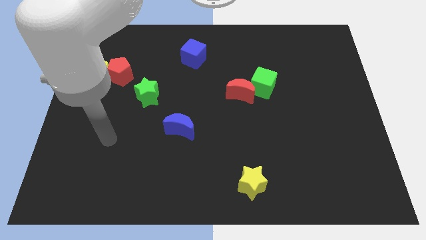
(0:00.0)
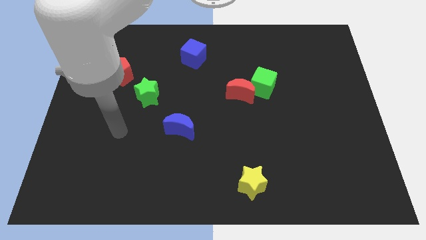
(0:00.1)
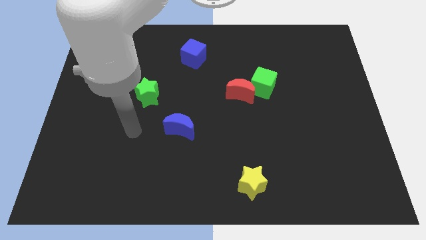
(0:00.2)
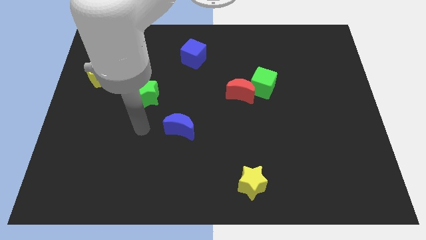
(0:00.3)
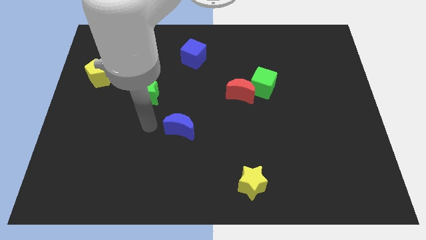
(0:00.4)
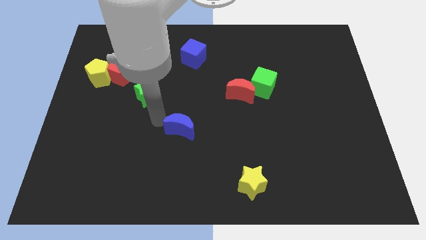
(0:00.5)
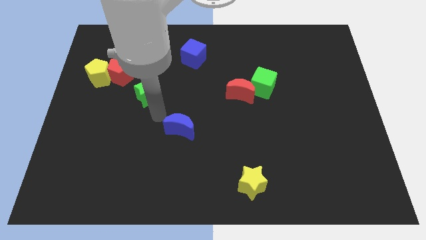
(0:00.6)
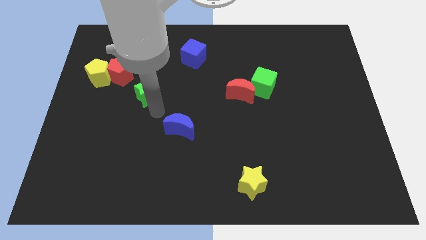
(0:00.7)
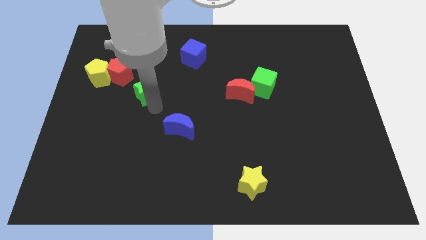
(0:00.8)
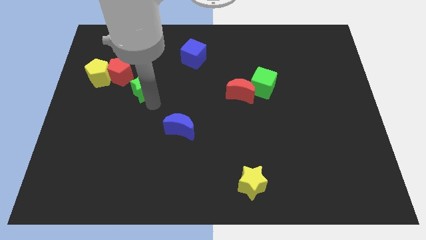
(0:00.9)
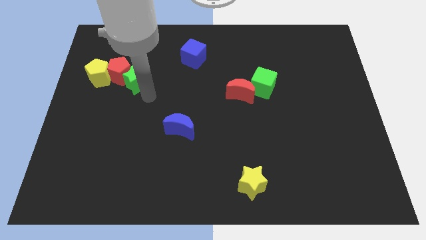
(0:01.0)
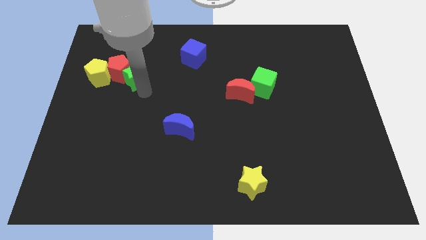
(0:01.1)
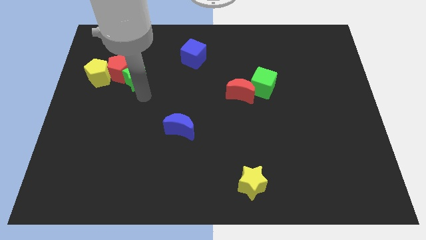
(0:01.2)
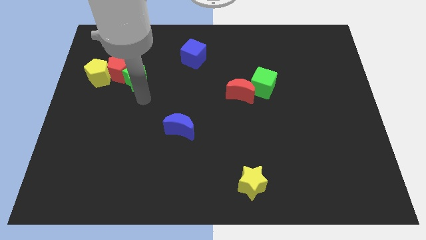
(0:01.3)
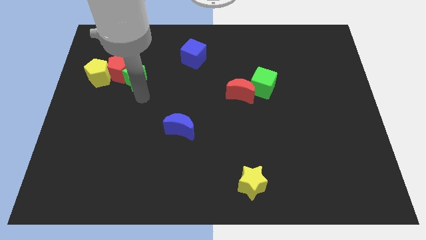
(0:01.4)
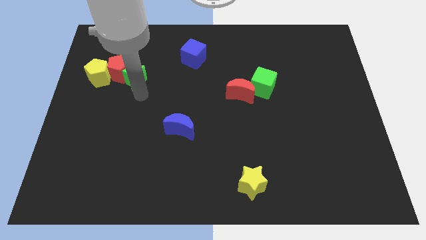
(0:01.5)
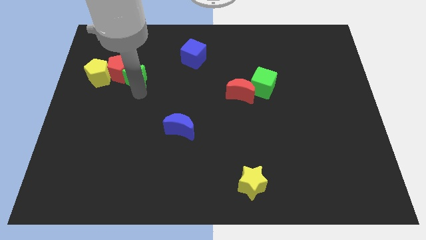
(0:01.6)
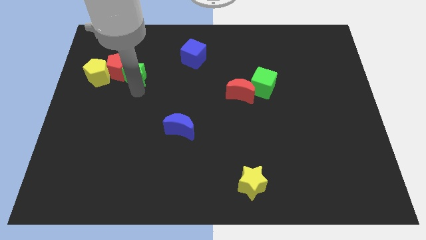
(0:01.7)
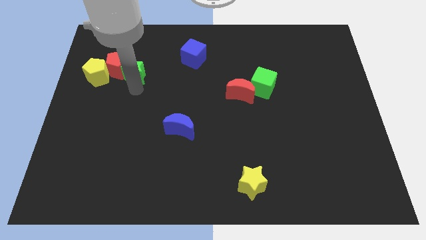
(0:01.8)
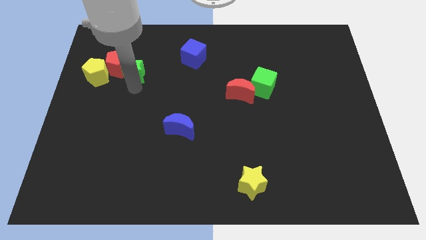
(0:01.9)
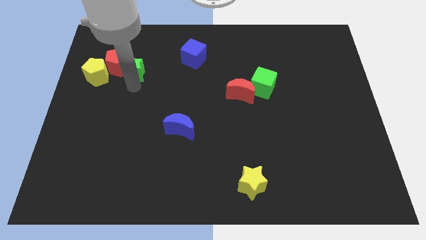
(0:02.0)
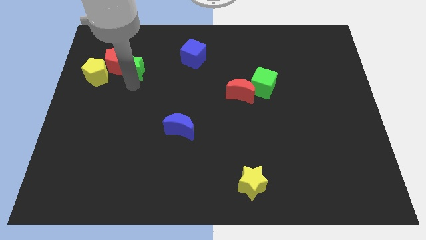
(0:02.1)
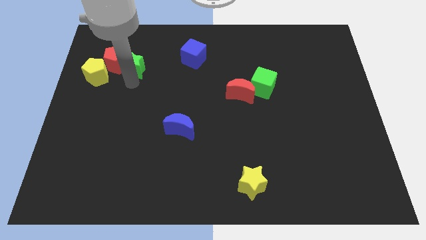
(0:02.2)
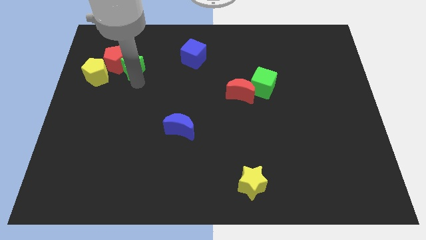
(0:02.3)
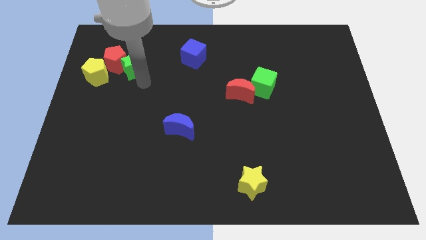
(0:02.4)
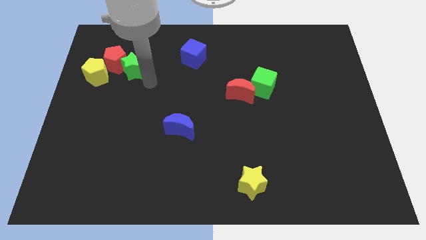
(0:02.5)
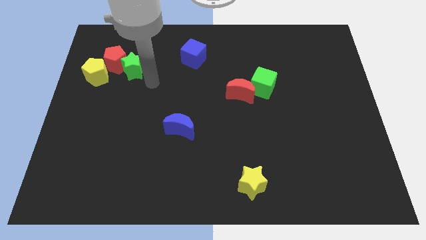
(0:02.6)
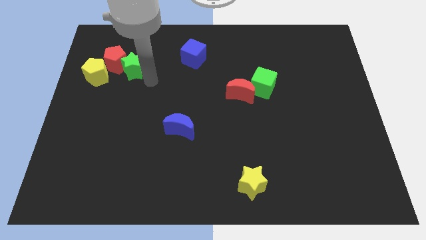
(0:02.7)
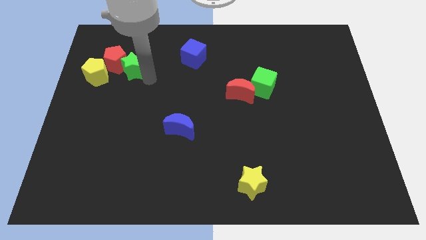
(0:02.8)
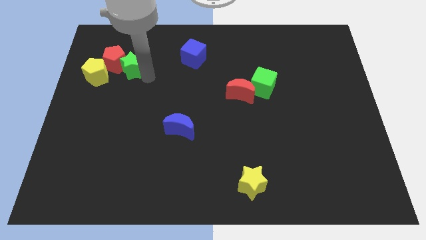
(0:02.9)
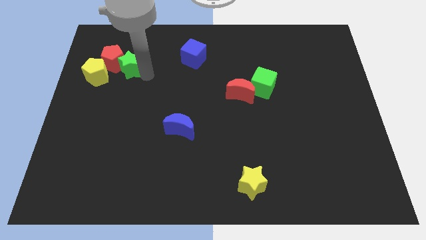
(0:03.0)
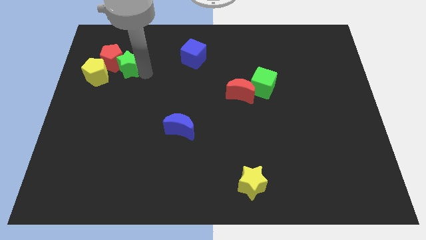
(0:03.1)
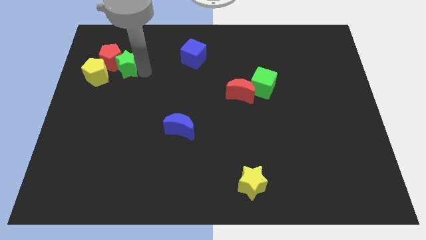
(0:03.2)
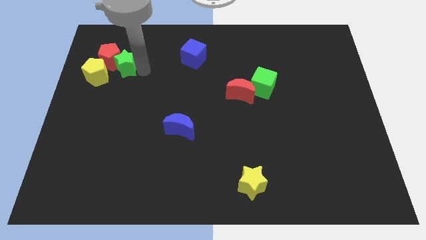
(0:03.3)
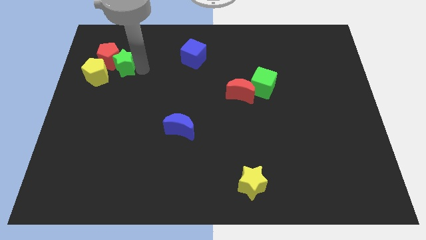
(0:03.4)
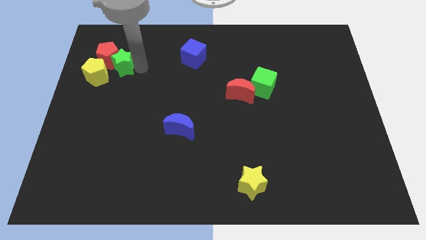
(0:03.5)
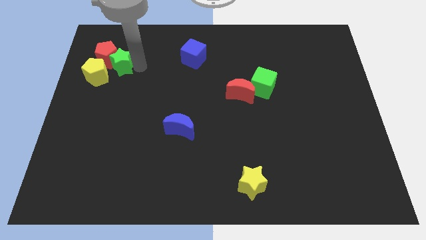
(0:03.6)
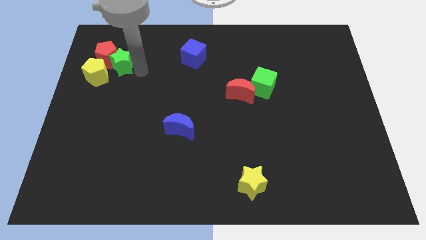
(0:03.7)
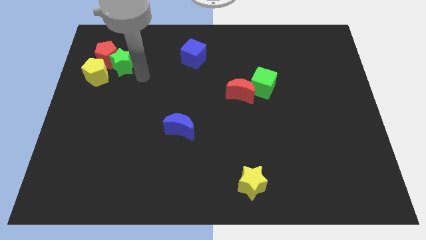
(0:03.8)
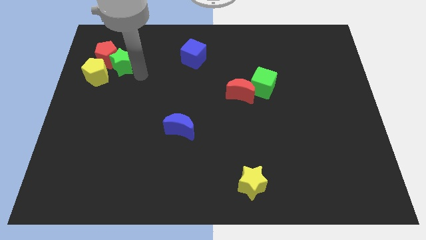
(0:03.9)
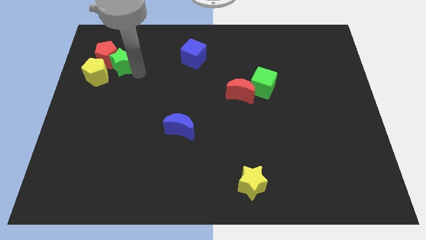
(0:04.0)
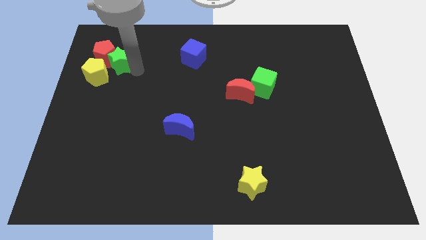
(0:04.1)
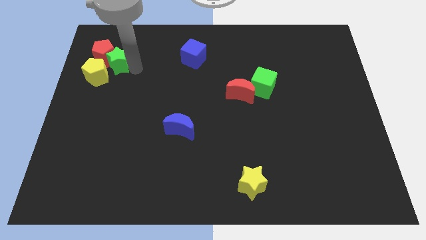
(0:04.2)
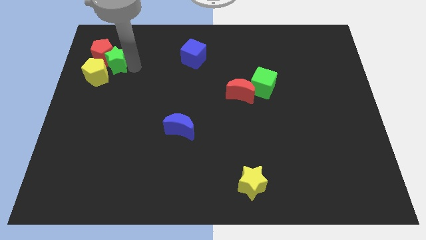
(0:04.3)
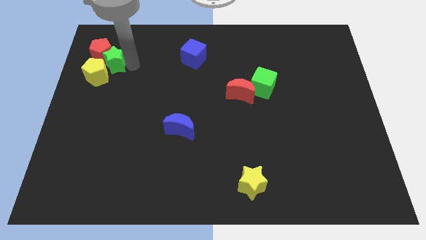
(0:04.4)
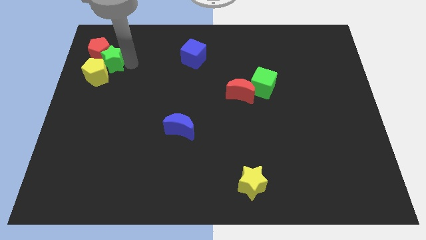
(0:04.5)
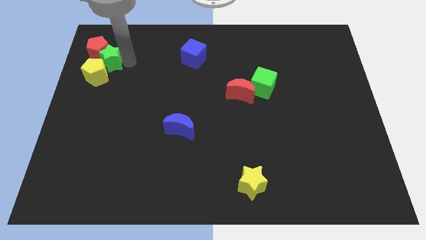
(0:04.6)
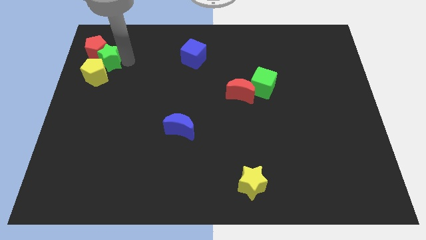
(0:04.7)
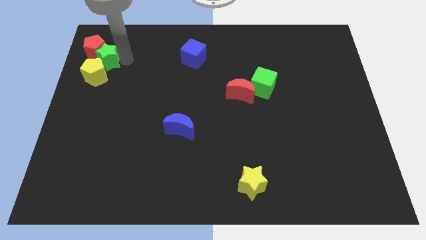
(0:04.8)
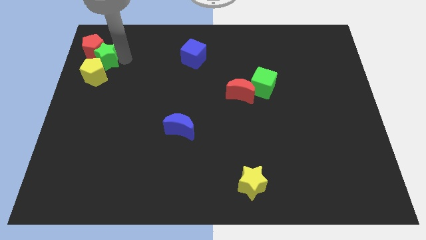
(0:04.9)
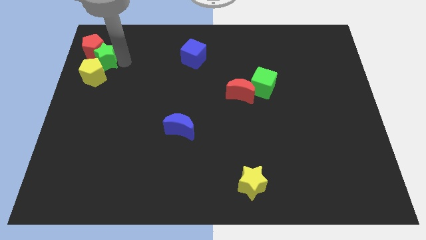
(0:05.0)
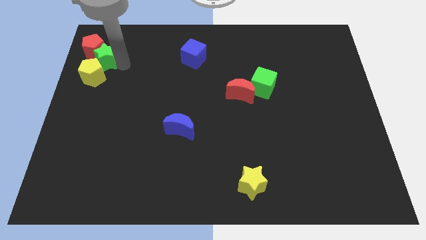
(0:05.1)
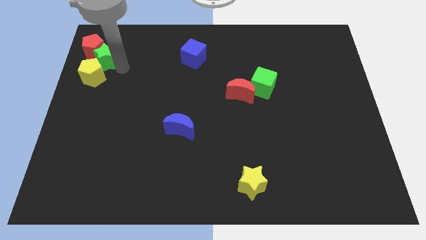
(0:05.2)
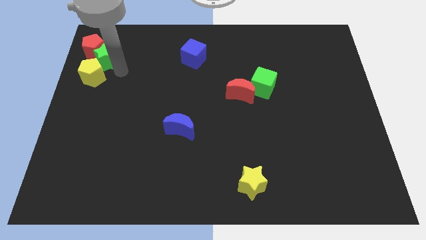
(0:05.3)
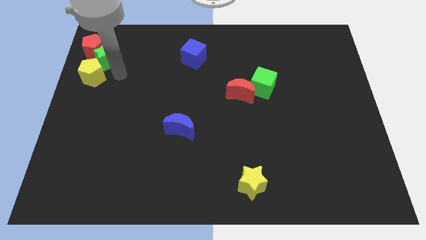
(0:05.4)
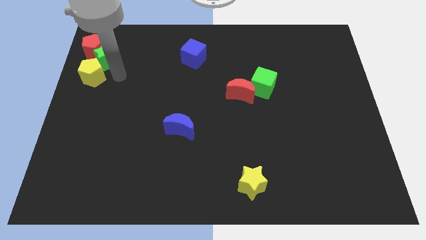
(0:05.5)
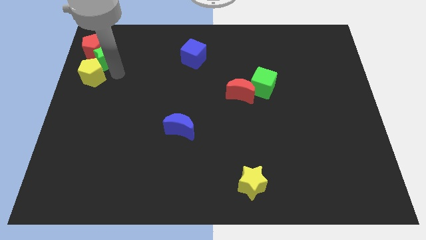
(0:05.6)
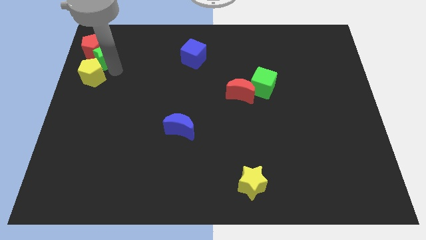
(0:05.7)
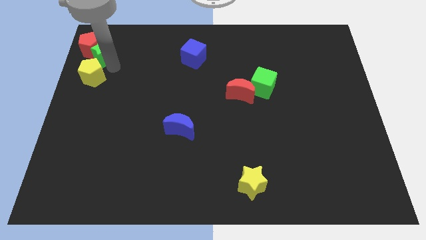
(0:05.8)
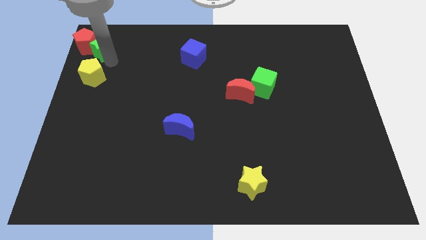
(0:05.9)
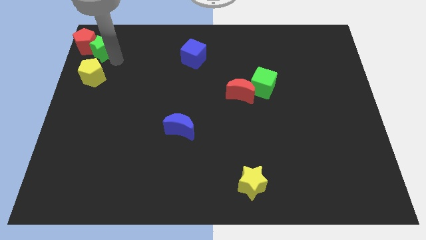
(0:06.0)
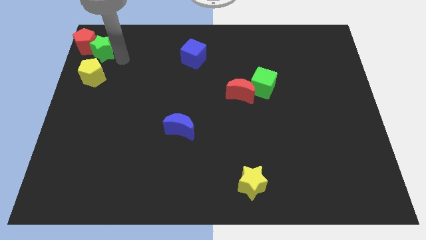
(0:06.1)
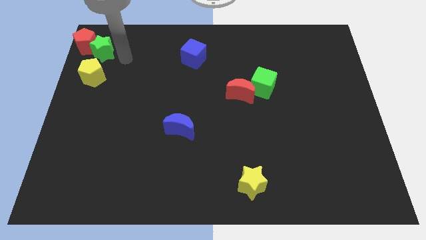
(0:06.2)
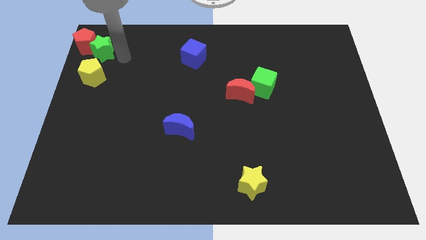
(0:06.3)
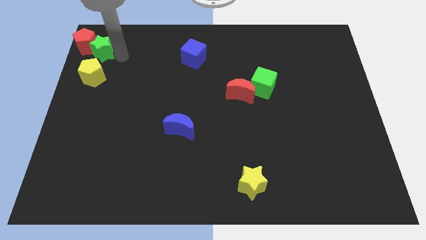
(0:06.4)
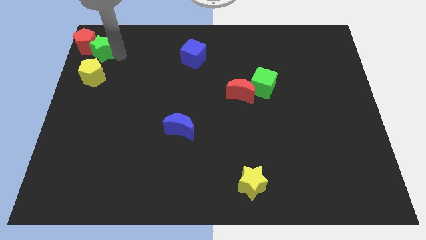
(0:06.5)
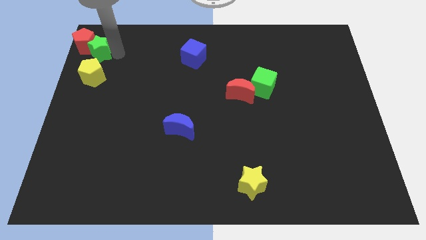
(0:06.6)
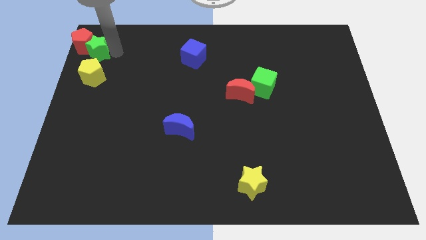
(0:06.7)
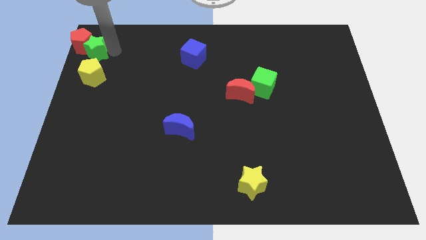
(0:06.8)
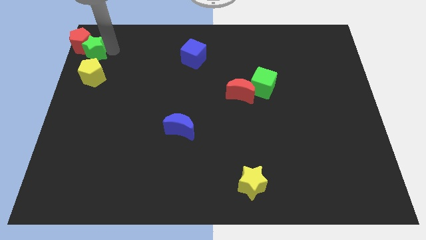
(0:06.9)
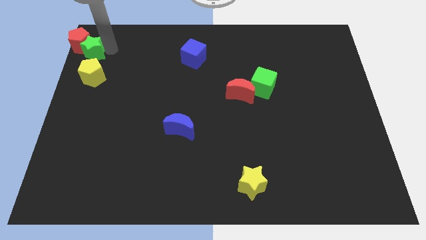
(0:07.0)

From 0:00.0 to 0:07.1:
put the green star to the upper left corner
